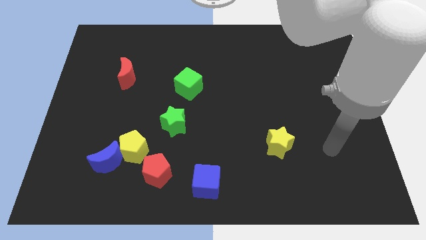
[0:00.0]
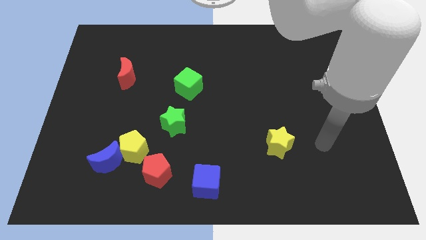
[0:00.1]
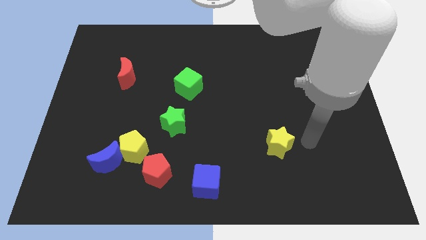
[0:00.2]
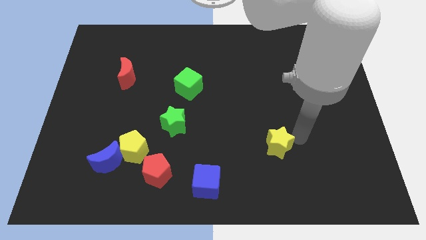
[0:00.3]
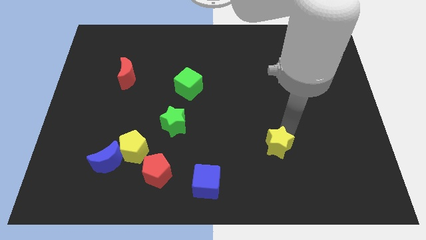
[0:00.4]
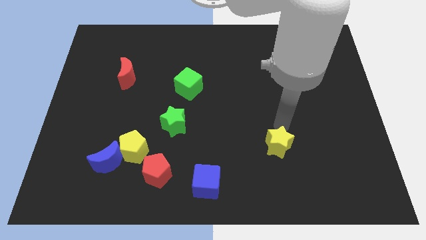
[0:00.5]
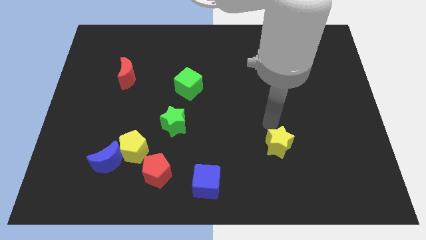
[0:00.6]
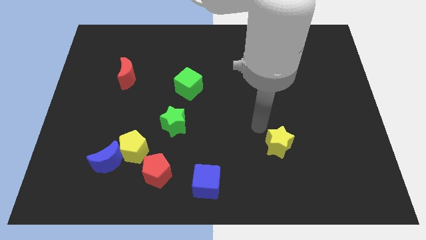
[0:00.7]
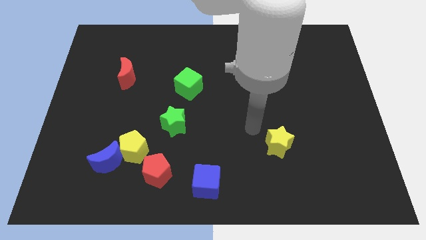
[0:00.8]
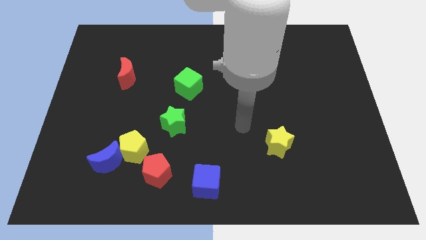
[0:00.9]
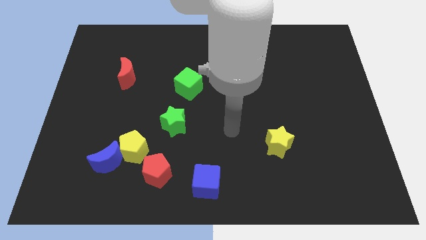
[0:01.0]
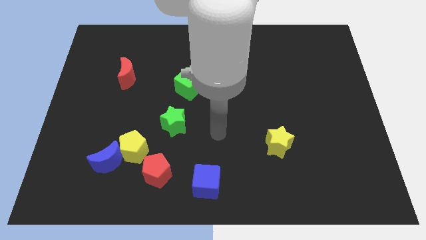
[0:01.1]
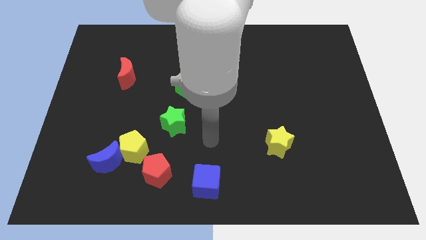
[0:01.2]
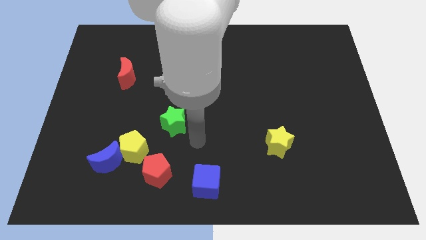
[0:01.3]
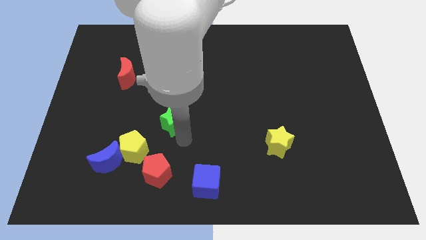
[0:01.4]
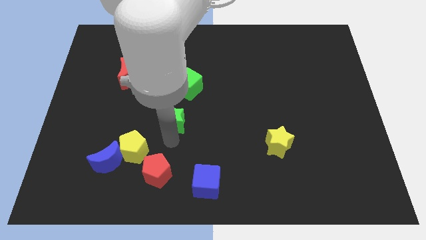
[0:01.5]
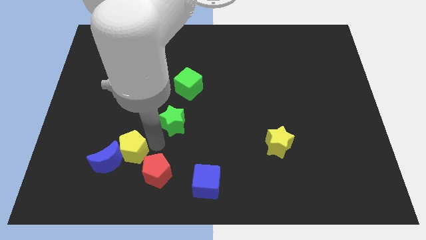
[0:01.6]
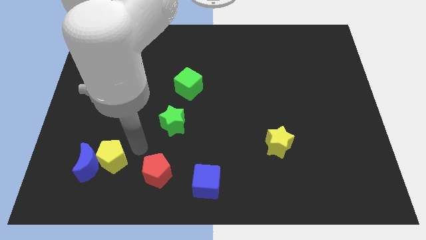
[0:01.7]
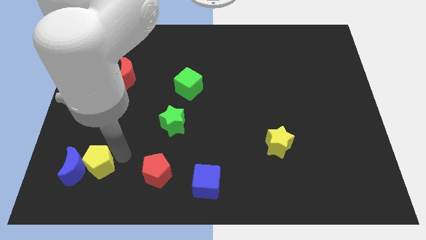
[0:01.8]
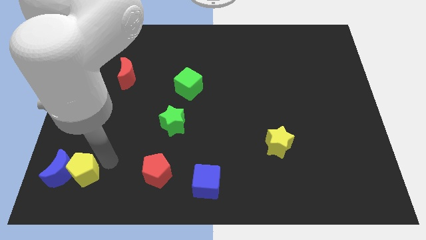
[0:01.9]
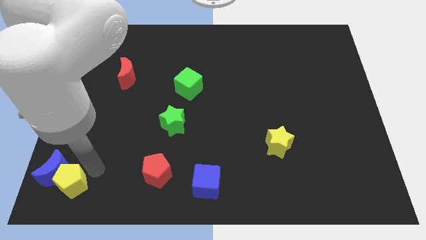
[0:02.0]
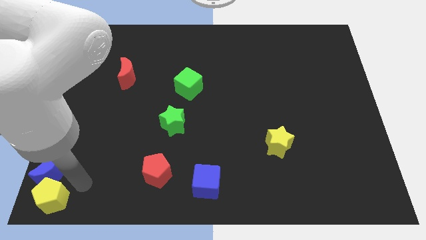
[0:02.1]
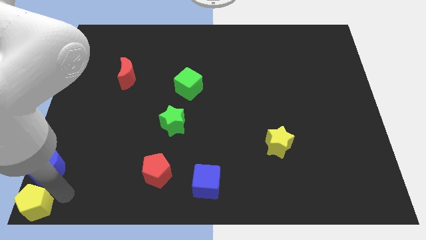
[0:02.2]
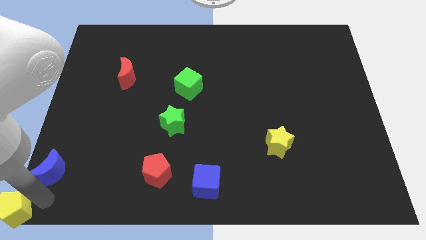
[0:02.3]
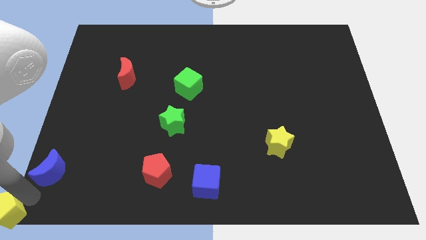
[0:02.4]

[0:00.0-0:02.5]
move the blue moon away from the yellow pentagon

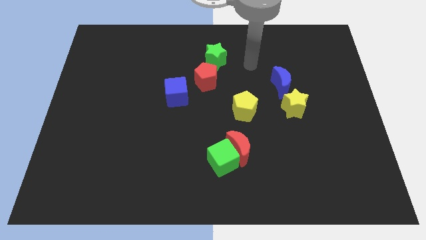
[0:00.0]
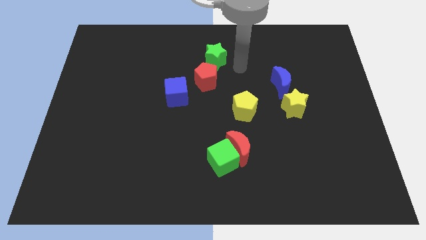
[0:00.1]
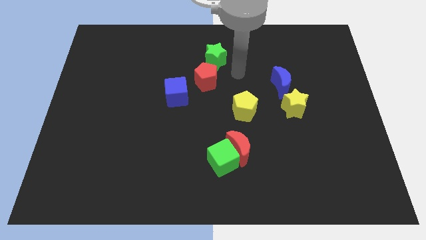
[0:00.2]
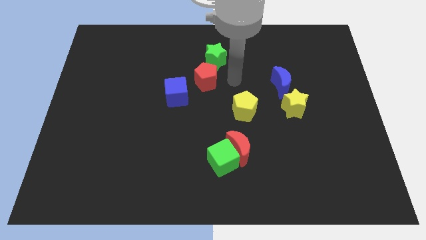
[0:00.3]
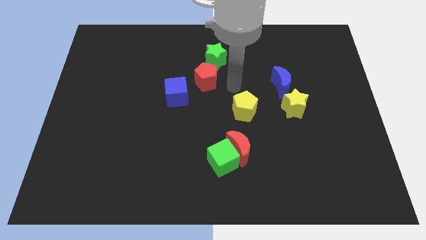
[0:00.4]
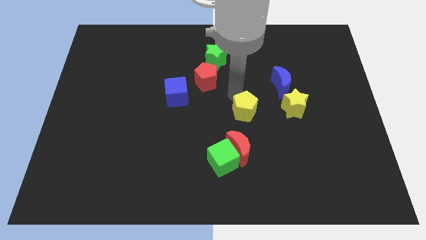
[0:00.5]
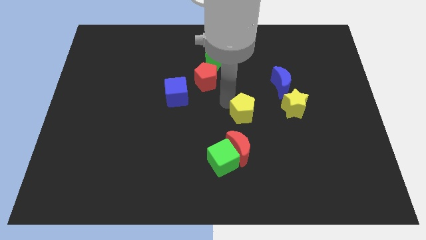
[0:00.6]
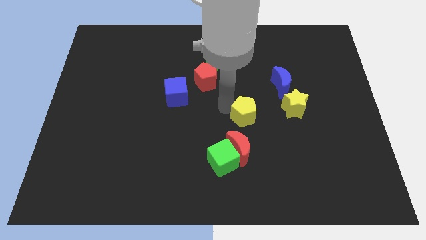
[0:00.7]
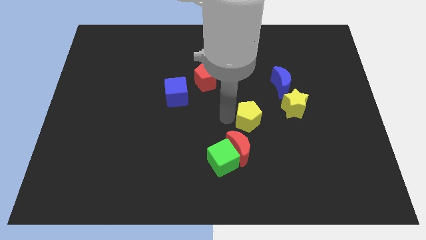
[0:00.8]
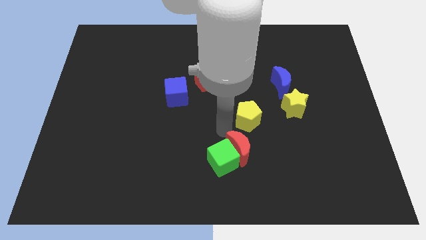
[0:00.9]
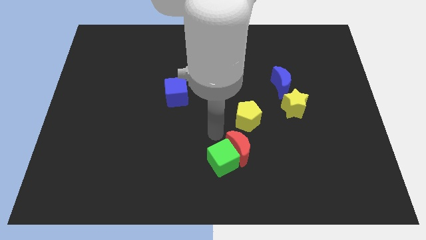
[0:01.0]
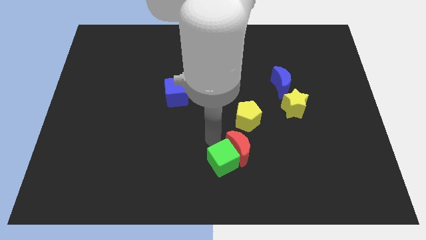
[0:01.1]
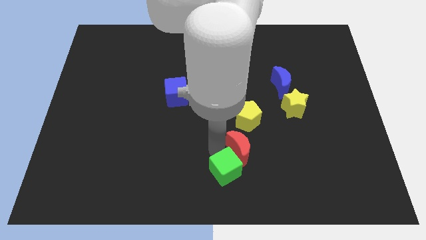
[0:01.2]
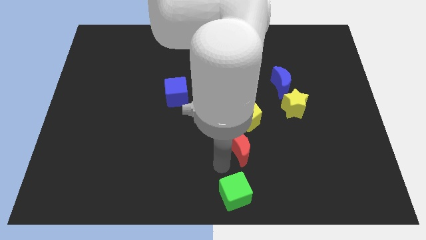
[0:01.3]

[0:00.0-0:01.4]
separate the red moon from the green cube

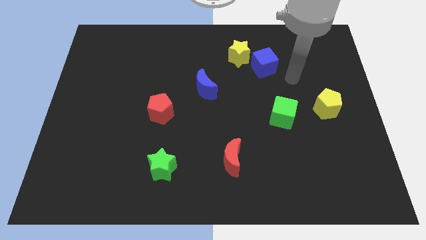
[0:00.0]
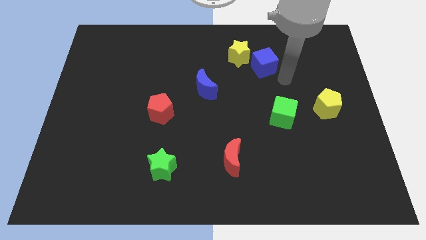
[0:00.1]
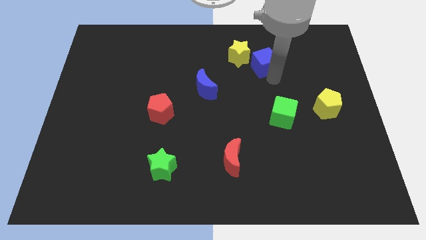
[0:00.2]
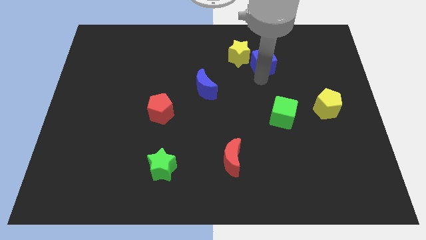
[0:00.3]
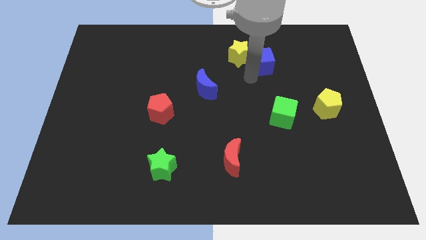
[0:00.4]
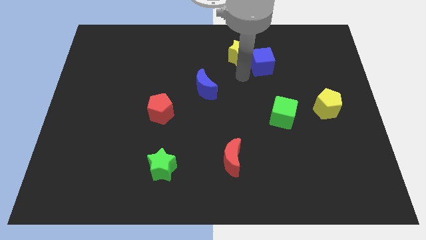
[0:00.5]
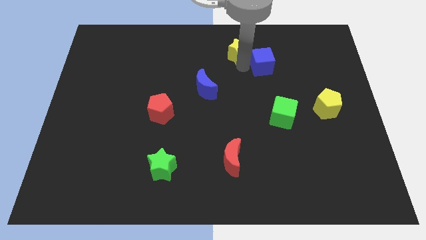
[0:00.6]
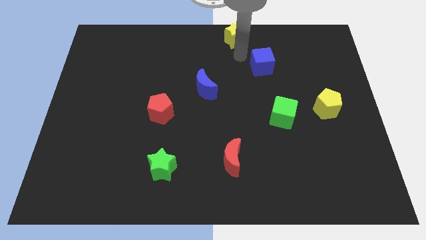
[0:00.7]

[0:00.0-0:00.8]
move the blue cube away from the yellow star

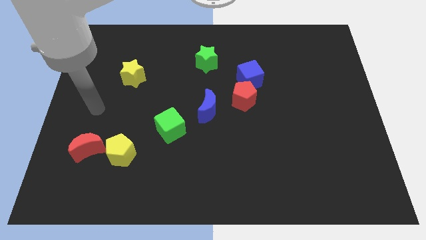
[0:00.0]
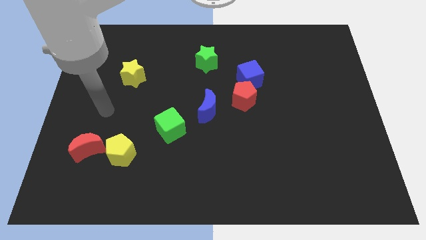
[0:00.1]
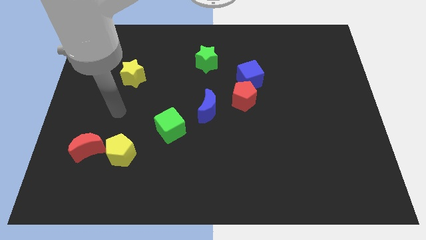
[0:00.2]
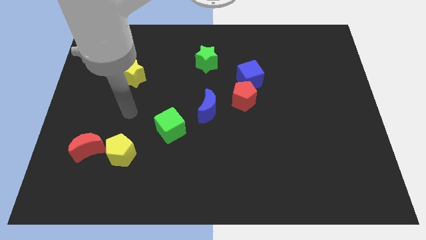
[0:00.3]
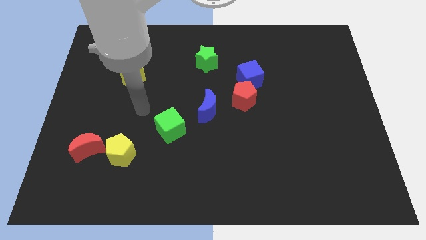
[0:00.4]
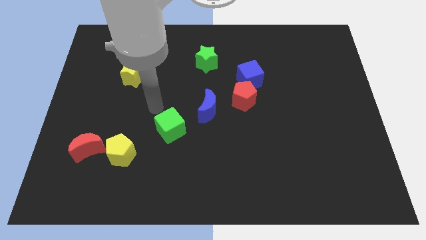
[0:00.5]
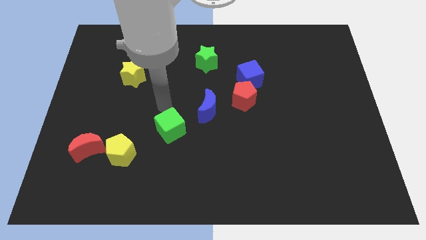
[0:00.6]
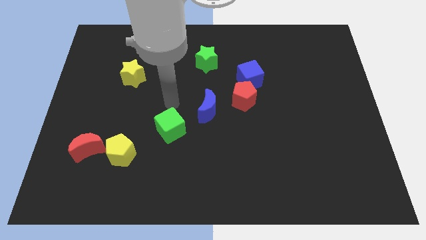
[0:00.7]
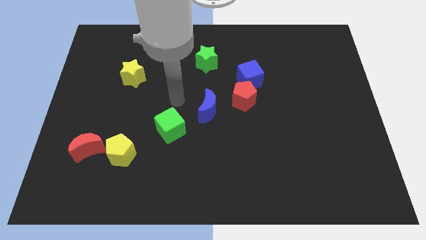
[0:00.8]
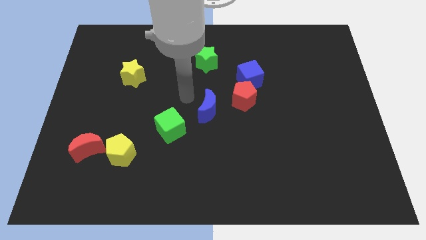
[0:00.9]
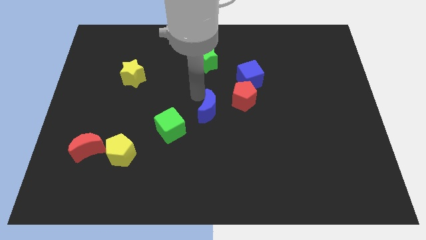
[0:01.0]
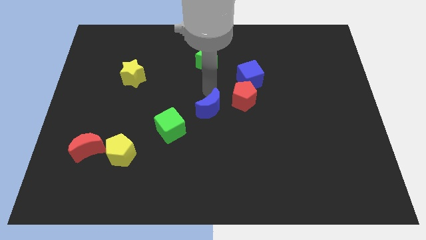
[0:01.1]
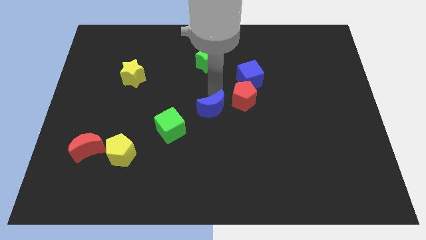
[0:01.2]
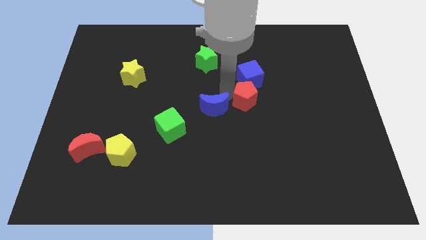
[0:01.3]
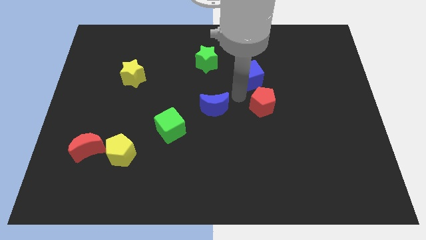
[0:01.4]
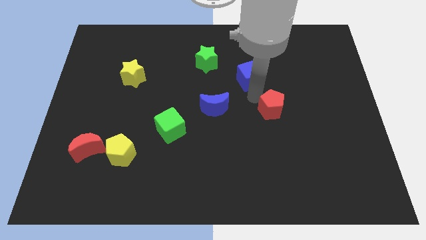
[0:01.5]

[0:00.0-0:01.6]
move the blue cube away from the red pentagon

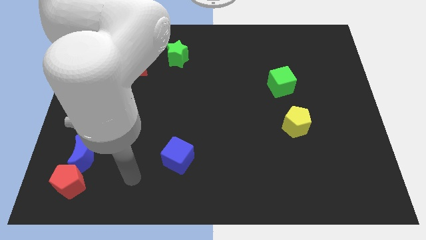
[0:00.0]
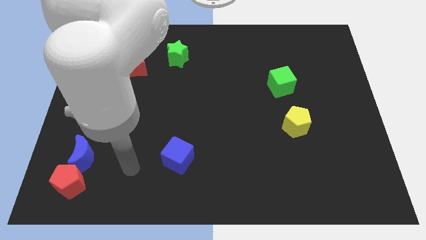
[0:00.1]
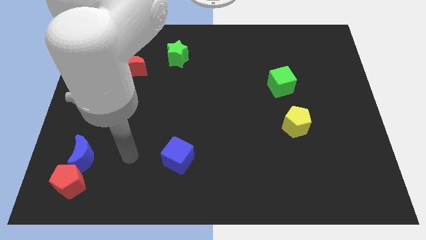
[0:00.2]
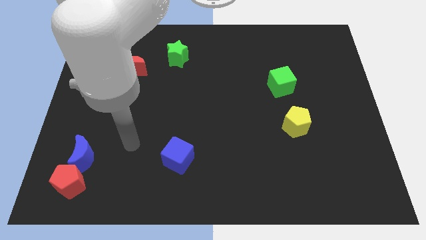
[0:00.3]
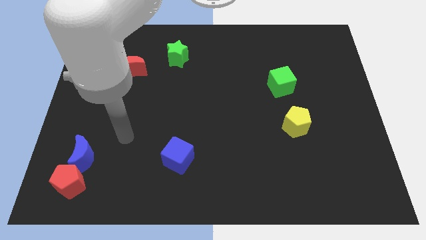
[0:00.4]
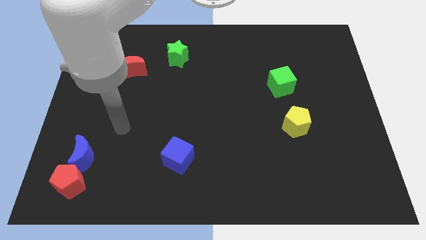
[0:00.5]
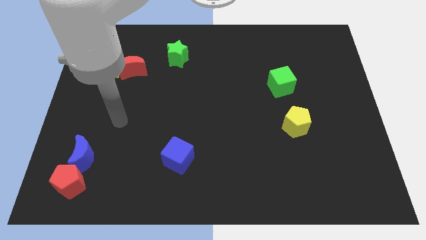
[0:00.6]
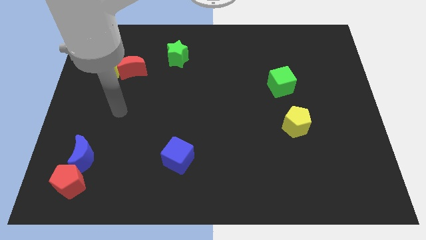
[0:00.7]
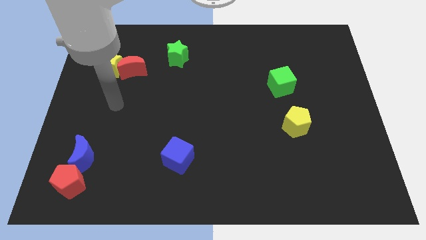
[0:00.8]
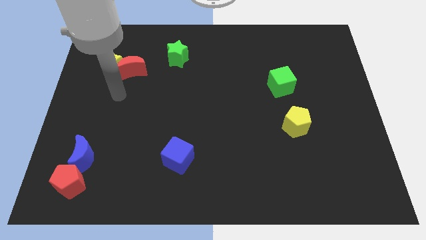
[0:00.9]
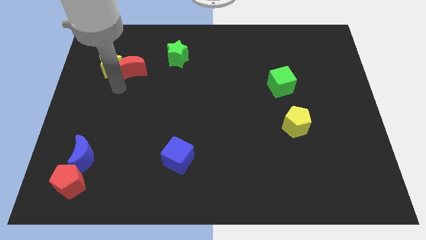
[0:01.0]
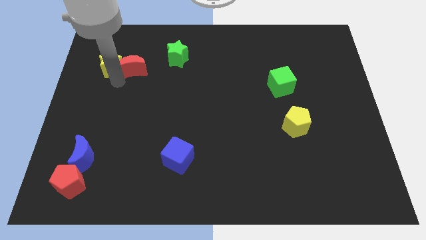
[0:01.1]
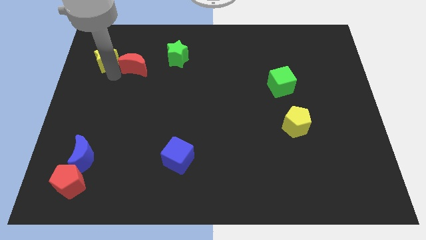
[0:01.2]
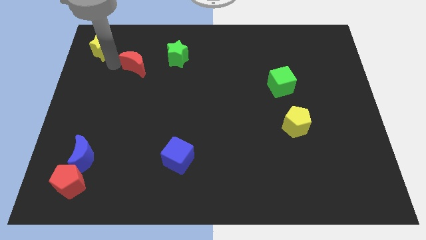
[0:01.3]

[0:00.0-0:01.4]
pull the red moon apart from the yellow star

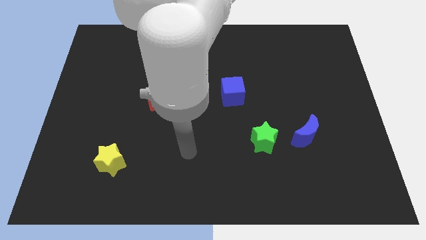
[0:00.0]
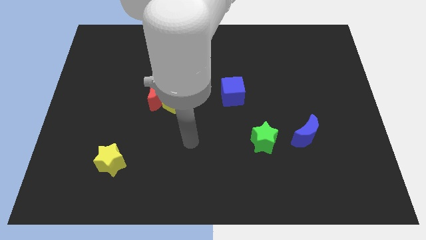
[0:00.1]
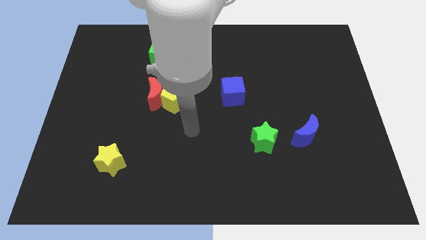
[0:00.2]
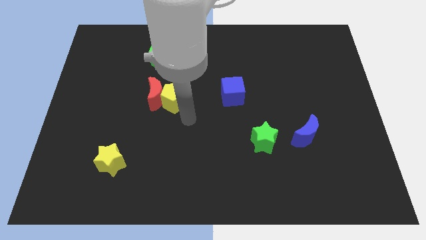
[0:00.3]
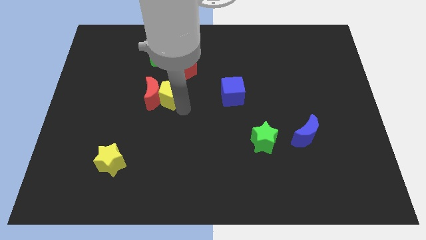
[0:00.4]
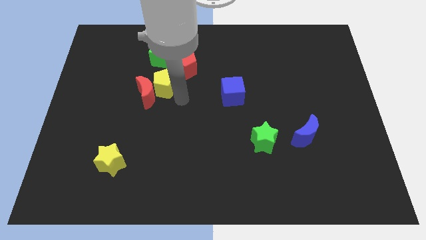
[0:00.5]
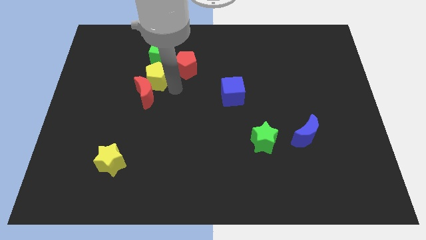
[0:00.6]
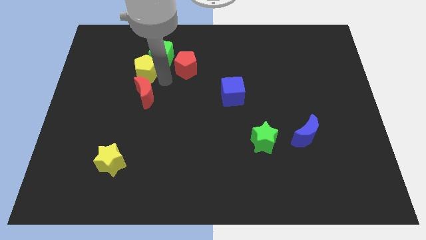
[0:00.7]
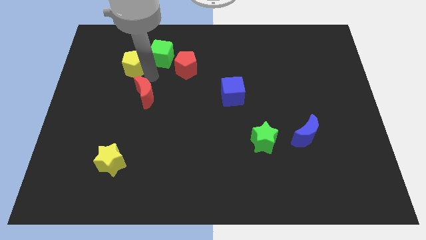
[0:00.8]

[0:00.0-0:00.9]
move the red moon away from the yellow pentagon

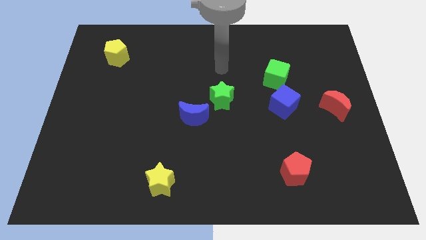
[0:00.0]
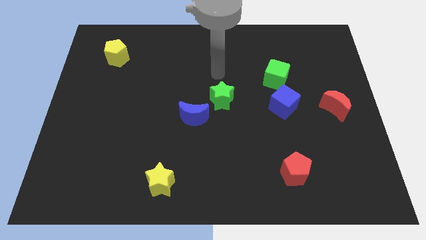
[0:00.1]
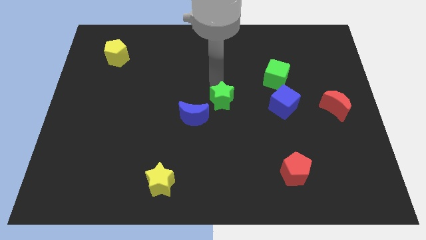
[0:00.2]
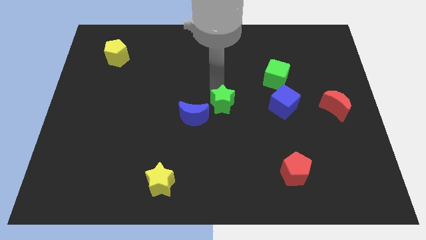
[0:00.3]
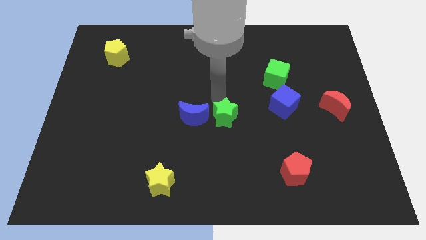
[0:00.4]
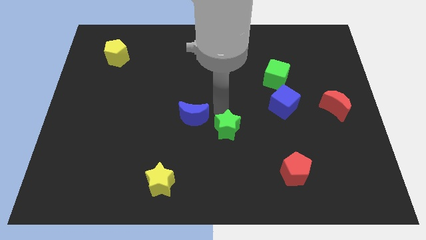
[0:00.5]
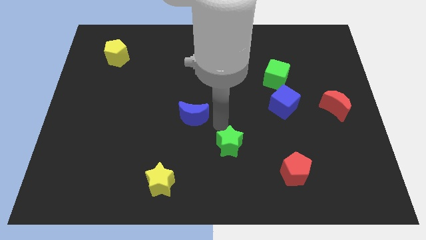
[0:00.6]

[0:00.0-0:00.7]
separate the blue moon from the green star
